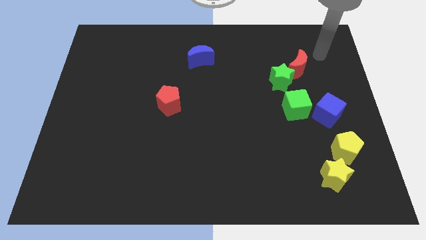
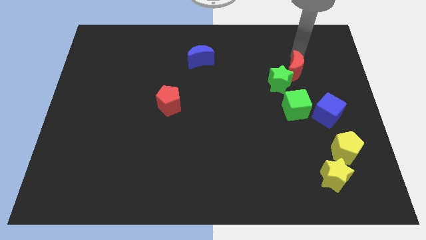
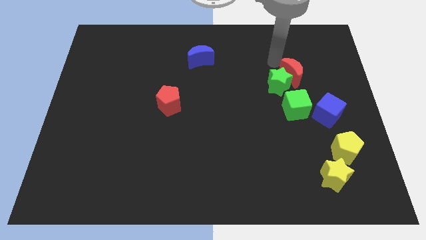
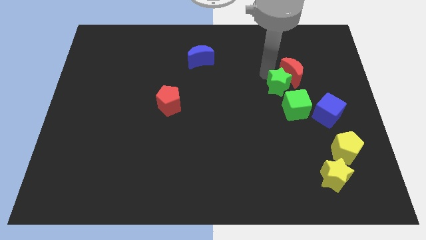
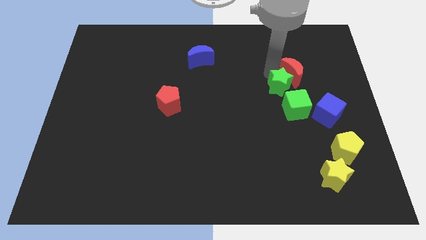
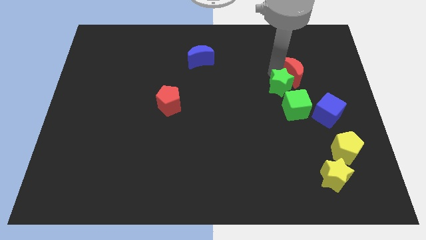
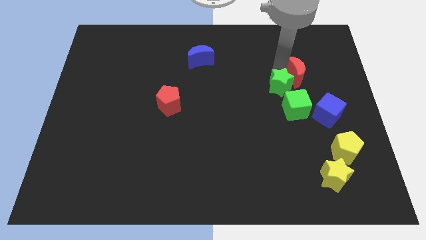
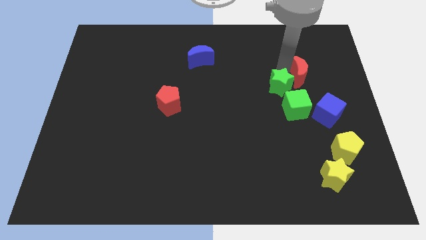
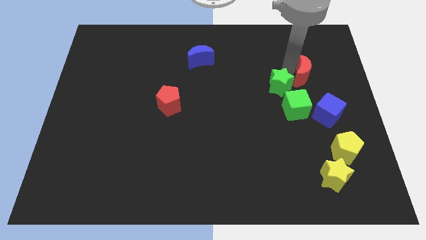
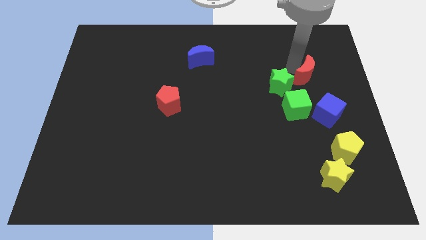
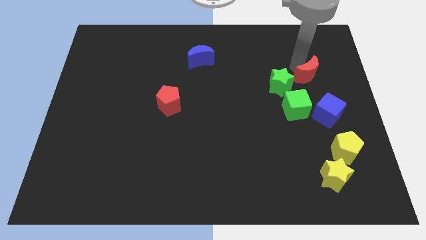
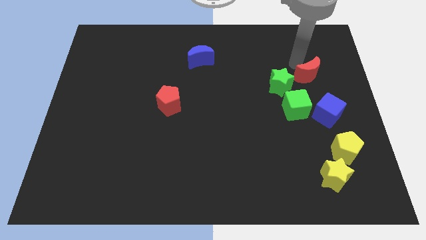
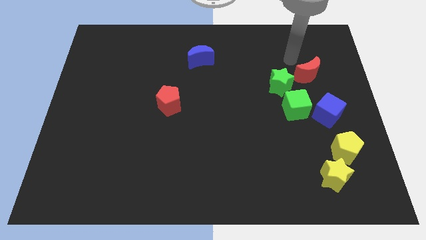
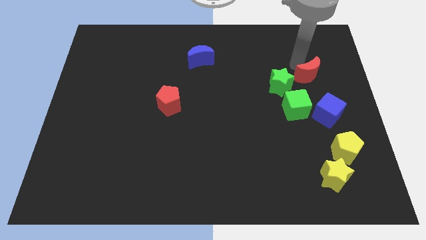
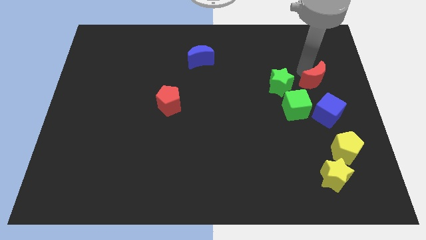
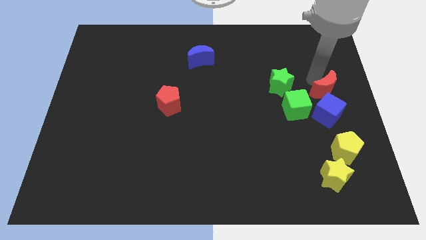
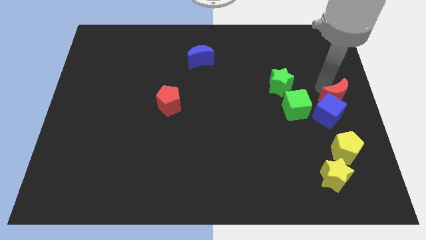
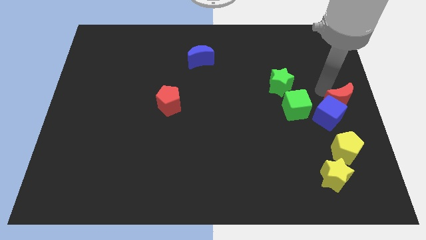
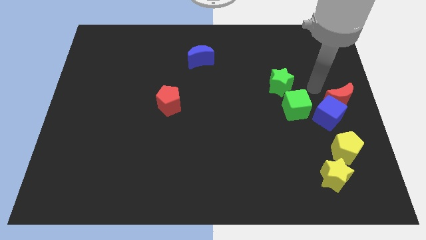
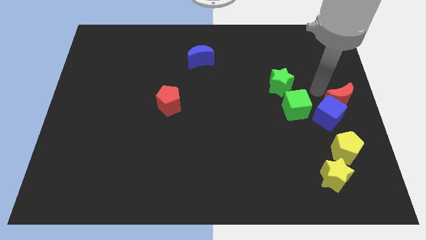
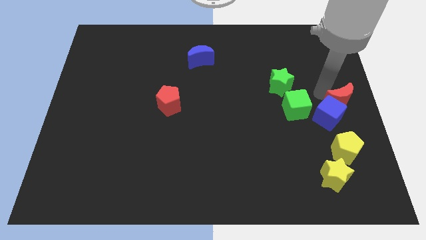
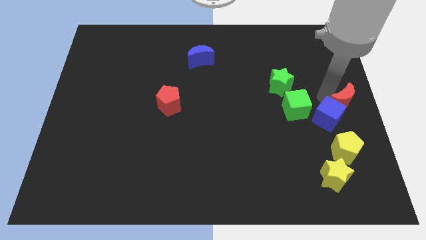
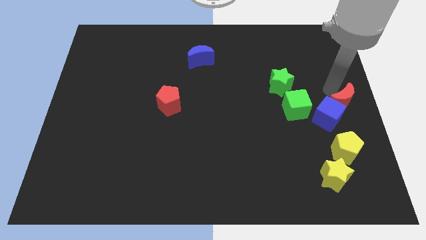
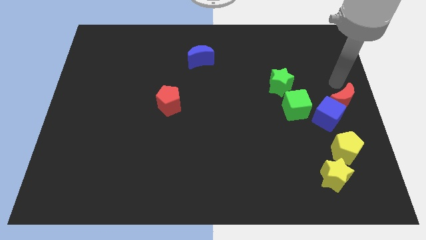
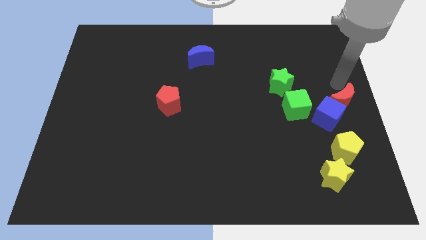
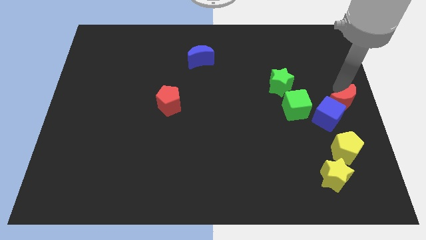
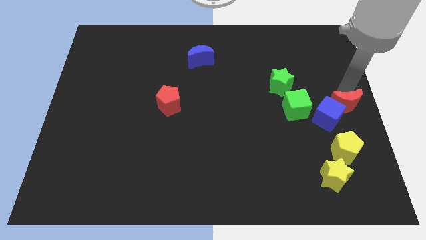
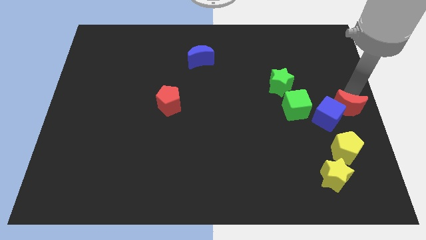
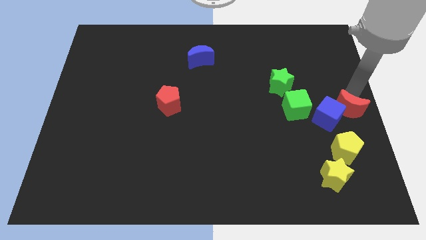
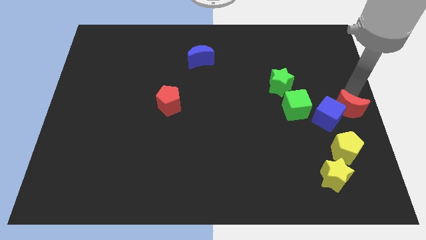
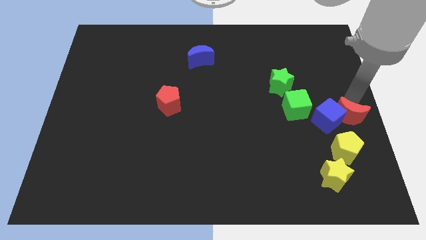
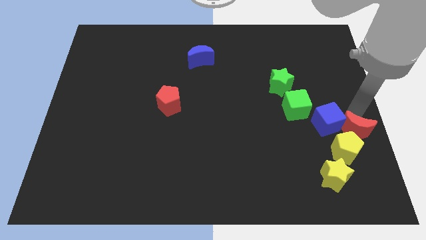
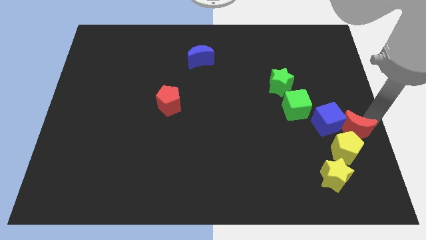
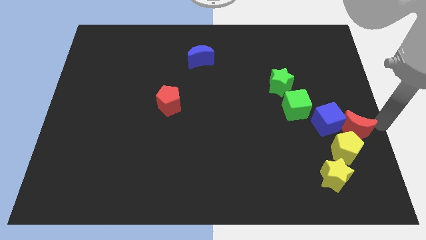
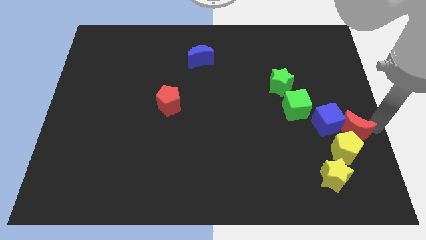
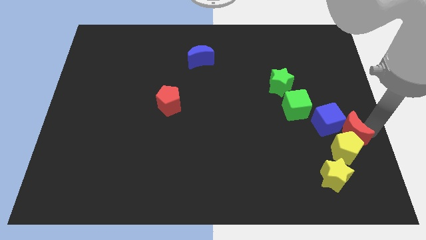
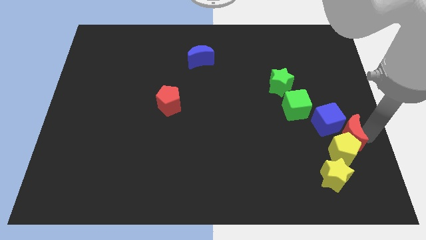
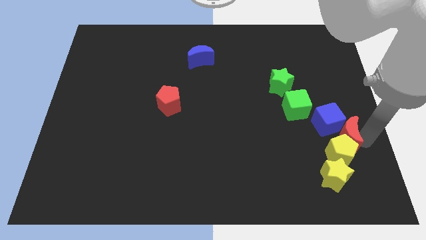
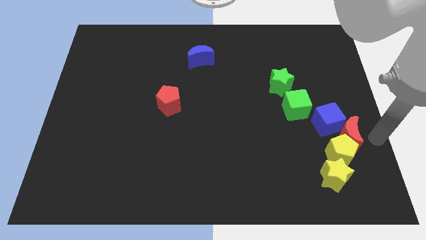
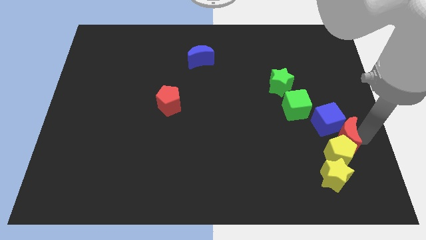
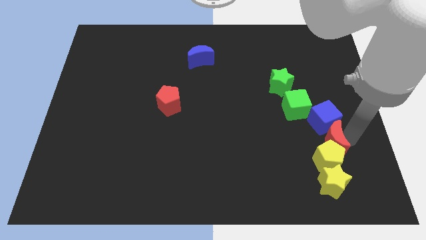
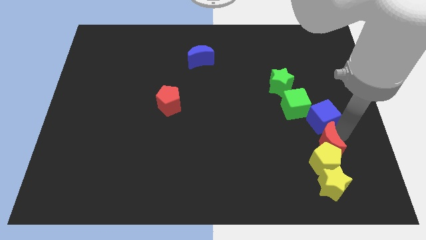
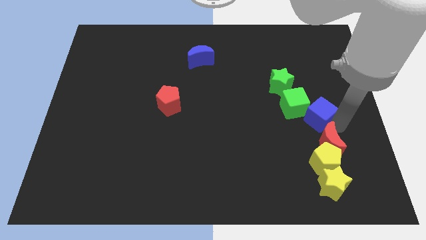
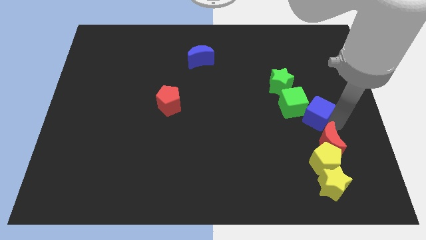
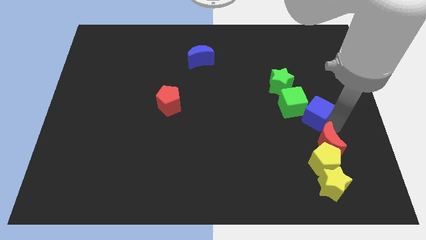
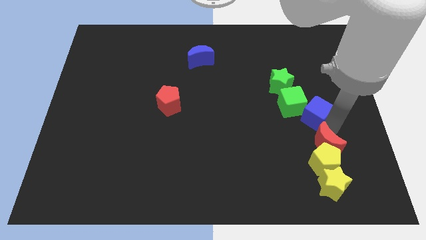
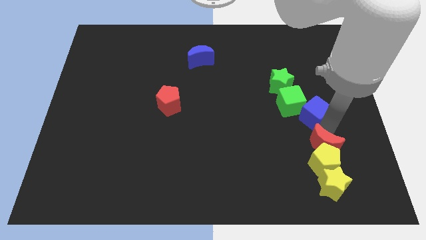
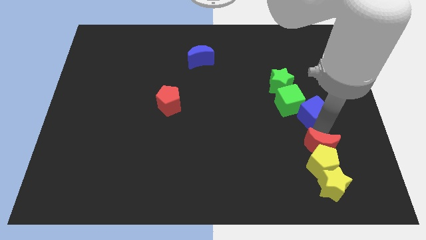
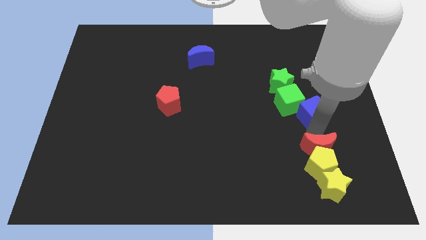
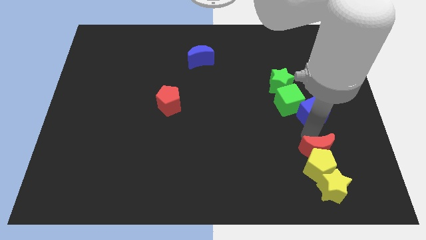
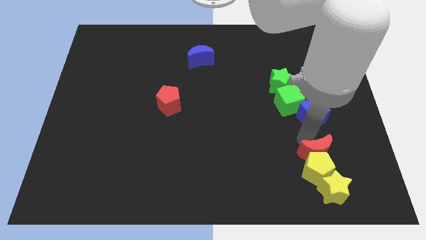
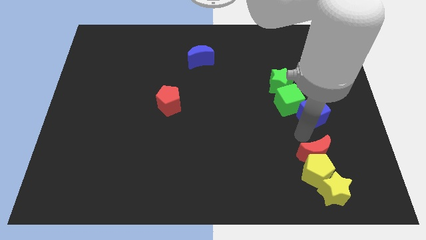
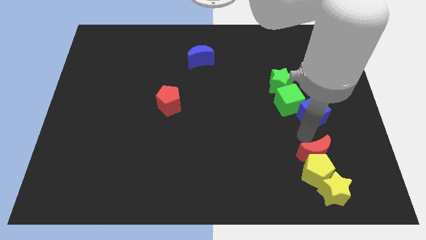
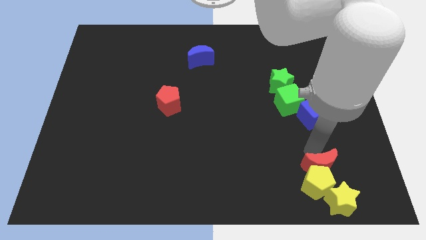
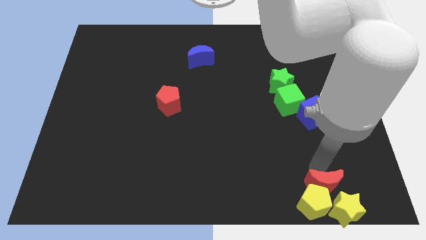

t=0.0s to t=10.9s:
put the red moon to the yellow star

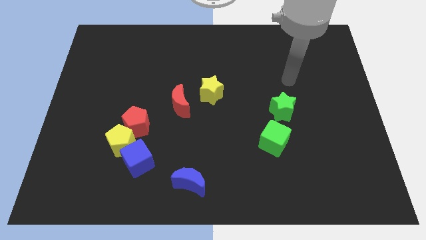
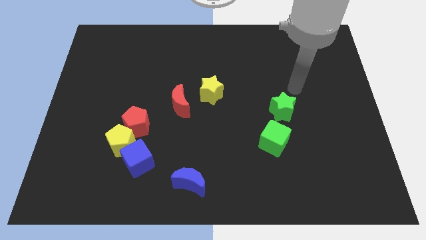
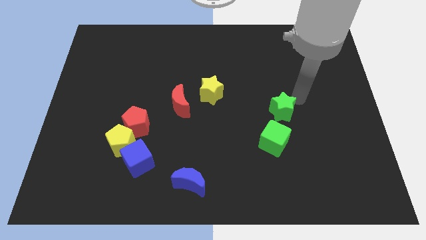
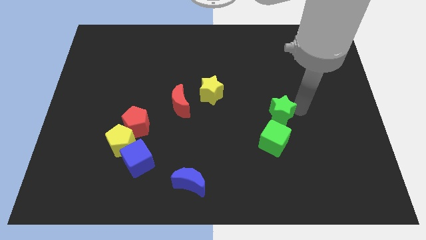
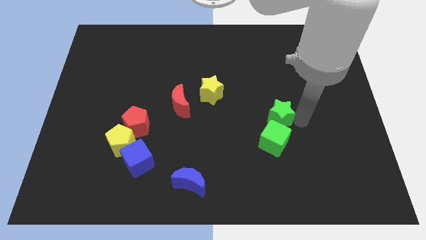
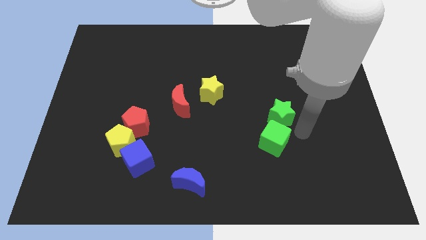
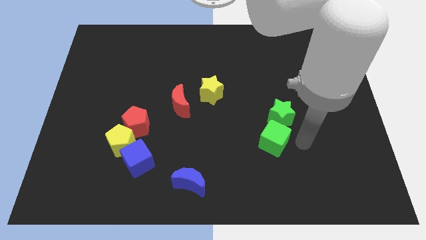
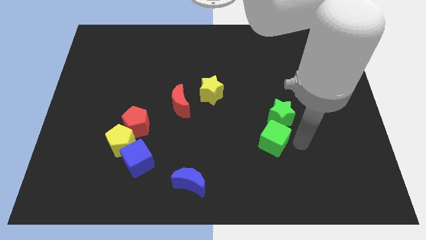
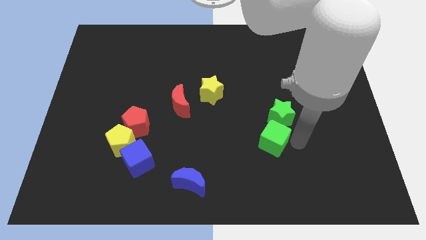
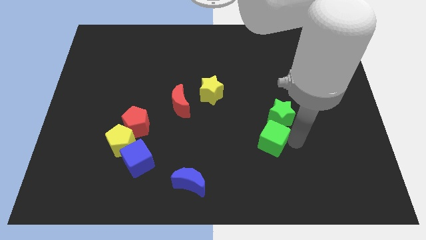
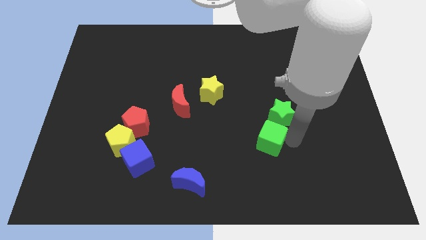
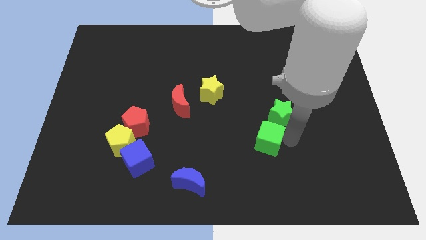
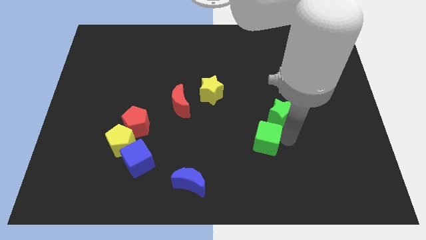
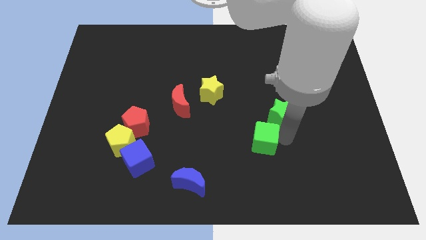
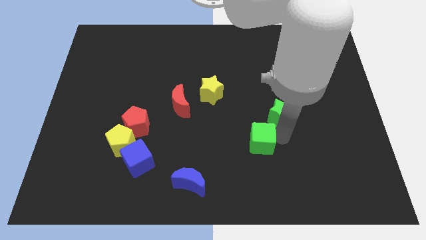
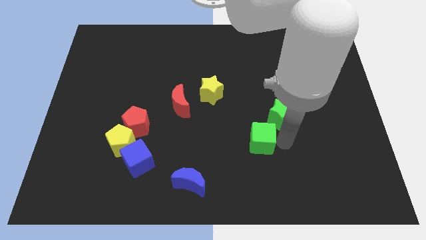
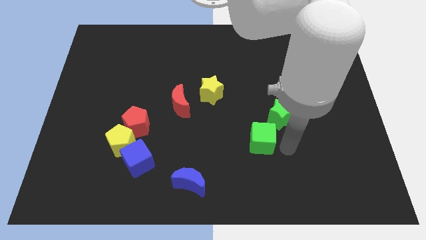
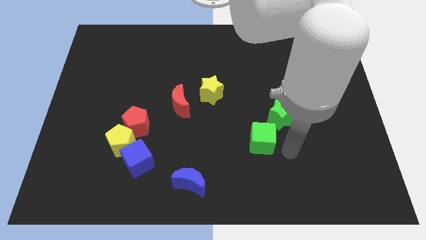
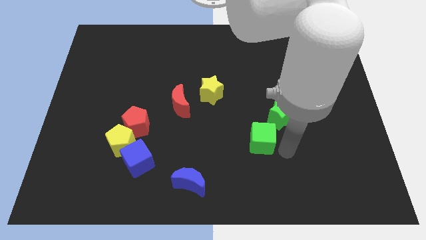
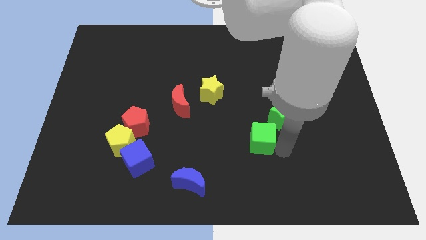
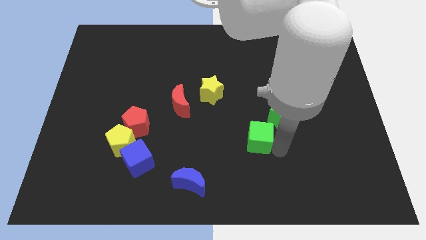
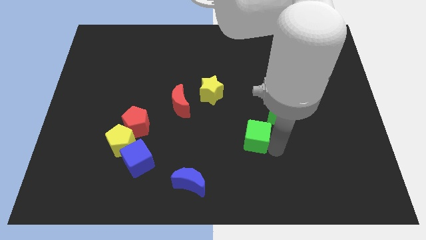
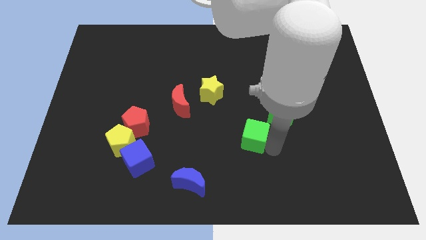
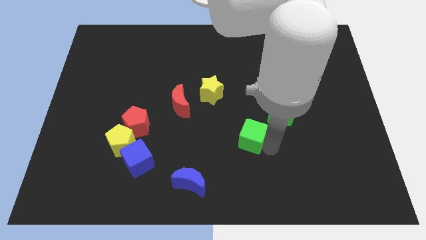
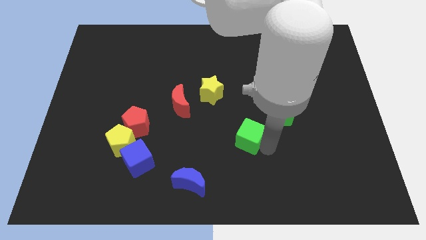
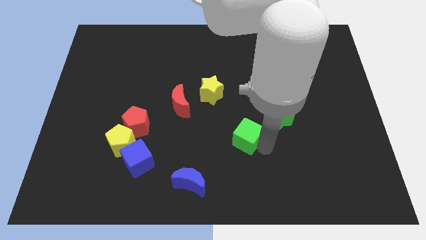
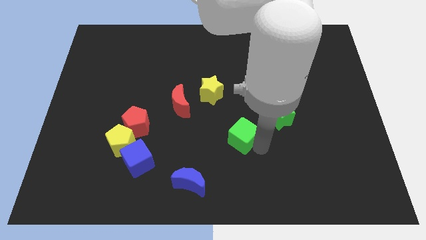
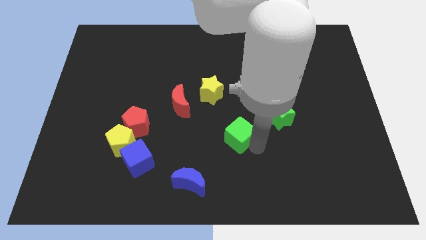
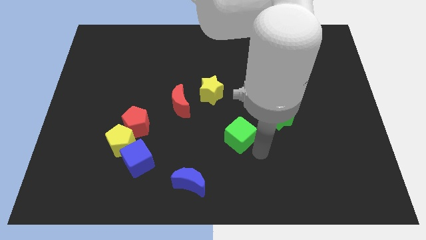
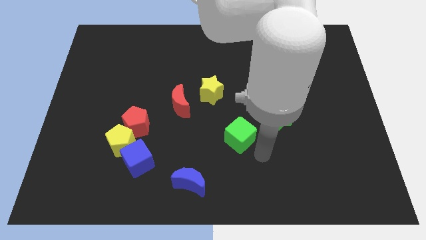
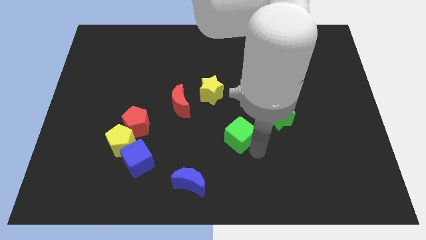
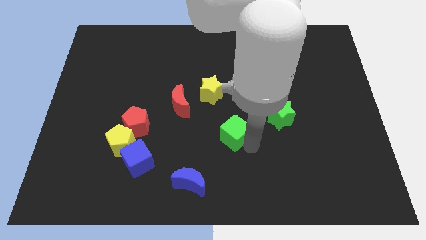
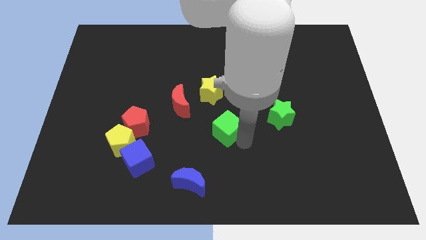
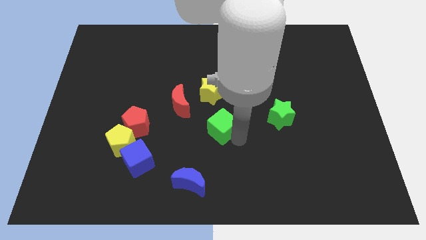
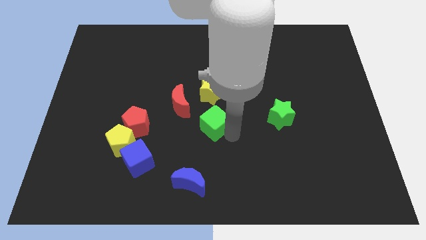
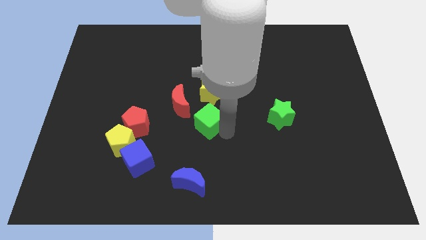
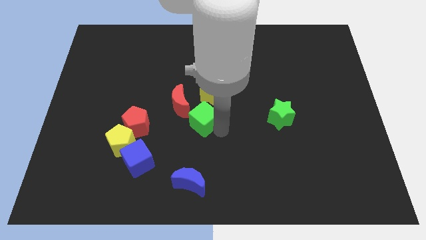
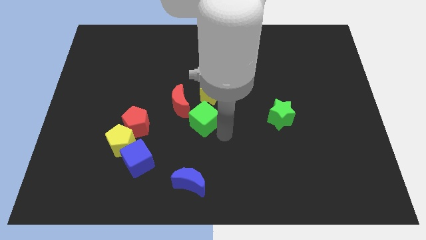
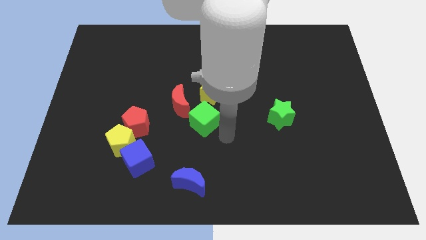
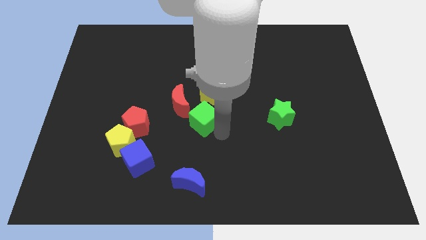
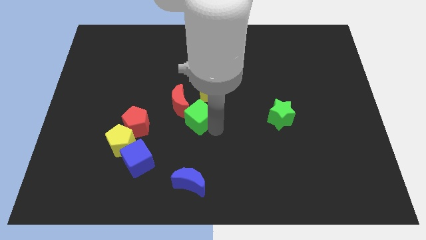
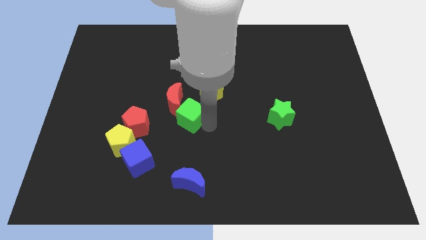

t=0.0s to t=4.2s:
put the green cube close to the red moon
